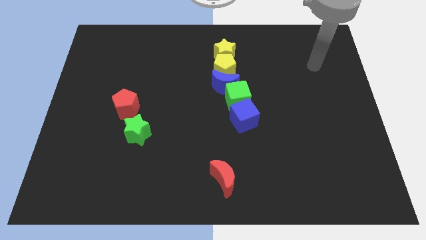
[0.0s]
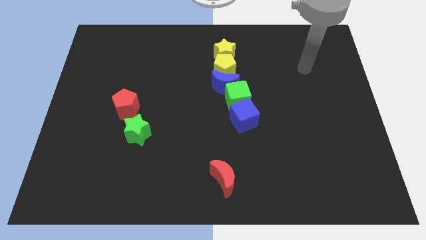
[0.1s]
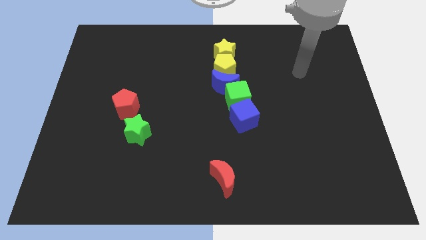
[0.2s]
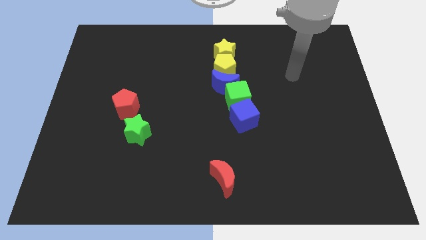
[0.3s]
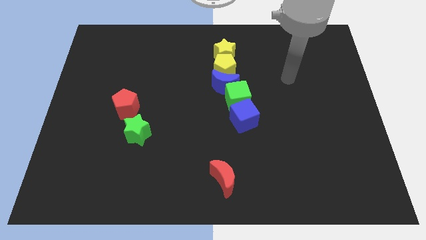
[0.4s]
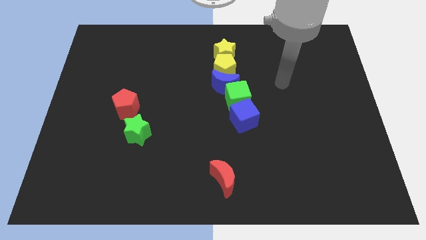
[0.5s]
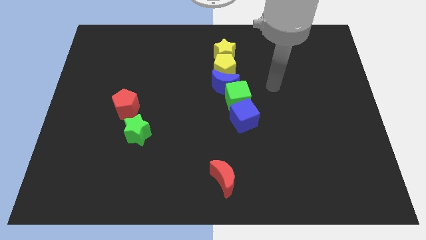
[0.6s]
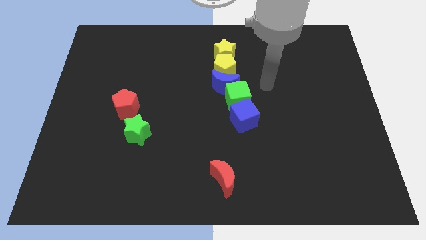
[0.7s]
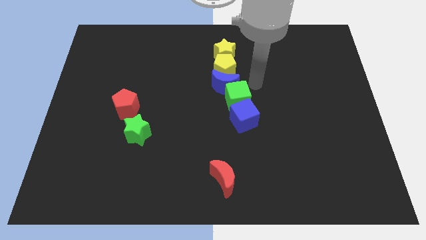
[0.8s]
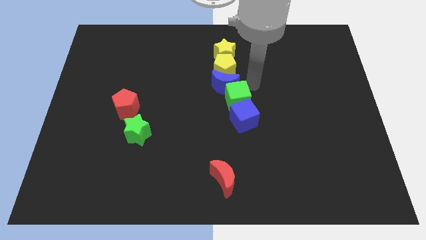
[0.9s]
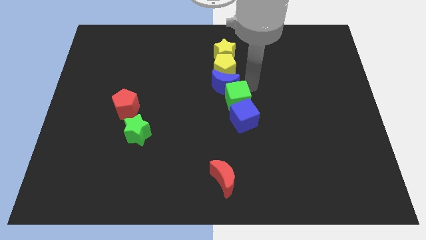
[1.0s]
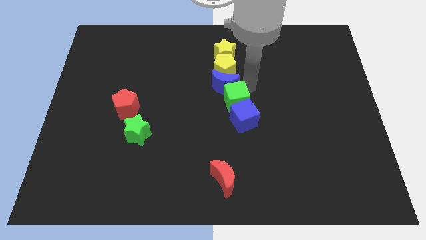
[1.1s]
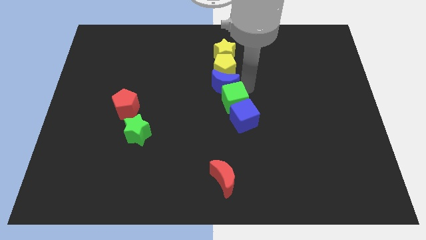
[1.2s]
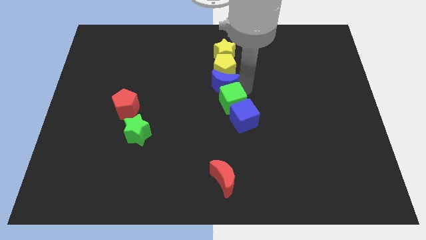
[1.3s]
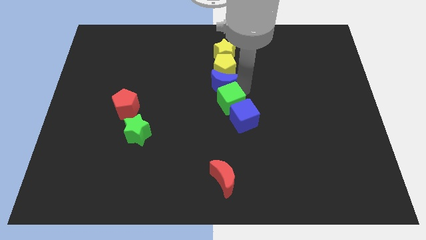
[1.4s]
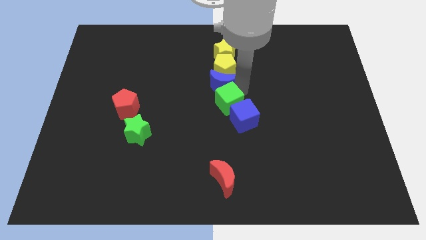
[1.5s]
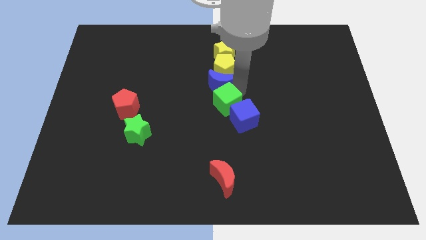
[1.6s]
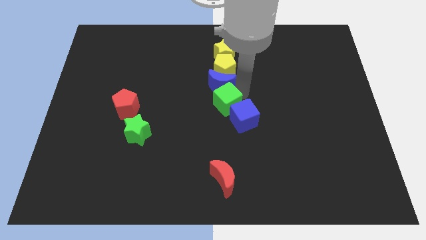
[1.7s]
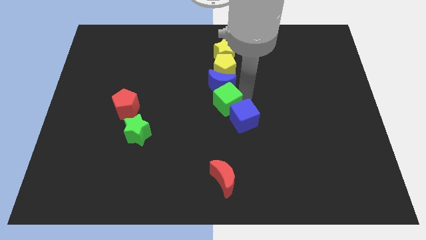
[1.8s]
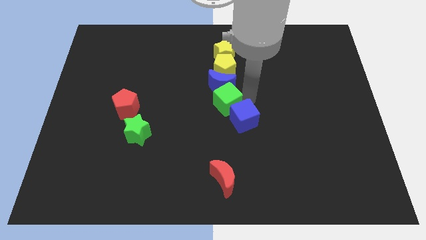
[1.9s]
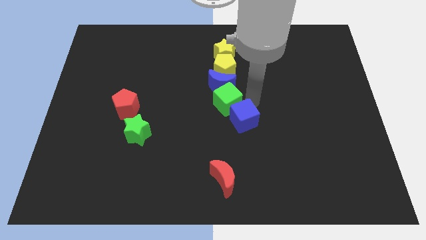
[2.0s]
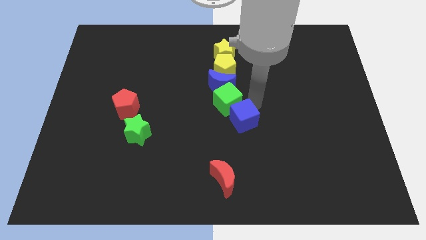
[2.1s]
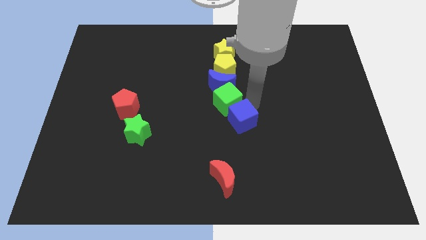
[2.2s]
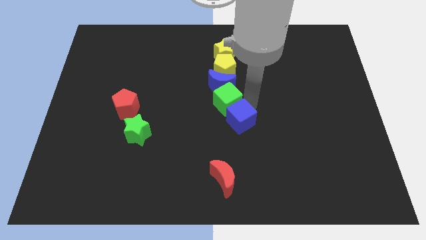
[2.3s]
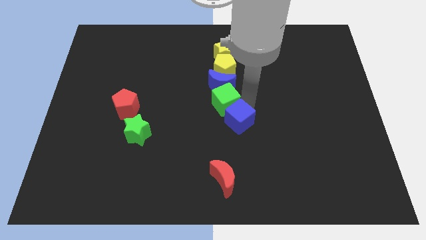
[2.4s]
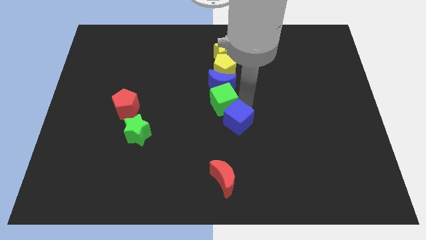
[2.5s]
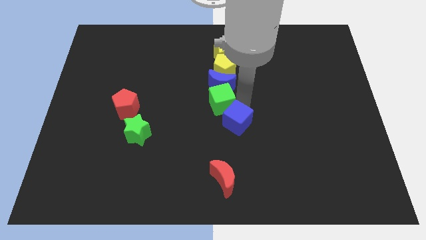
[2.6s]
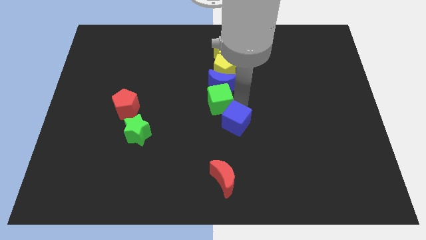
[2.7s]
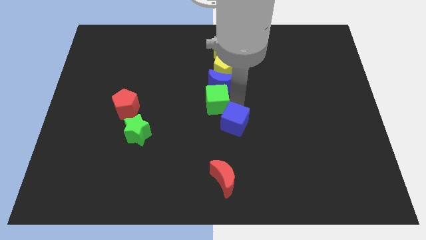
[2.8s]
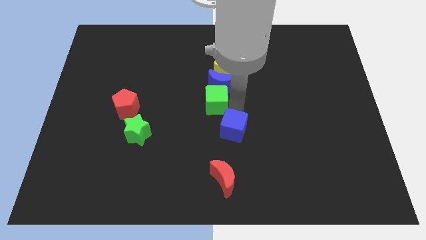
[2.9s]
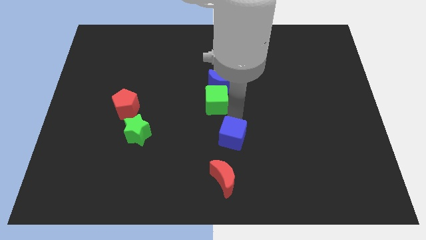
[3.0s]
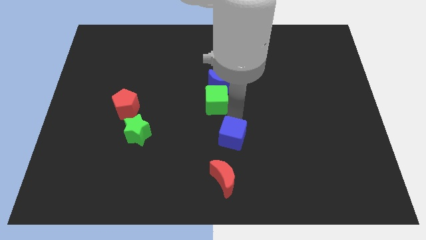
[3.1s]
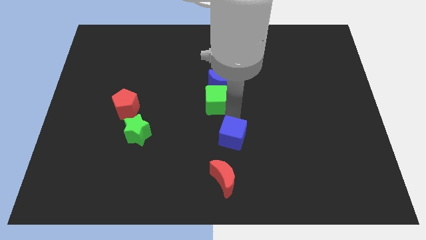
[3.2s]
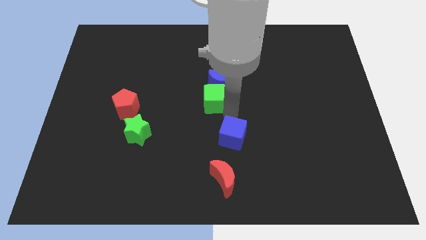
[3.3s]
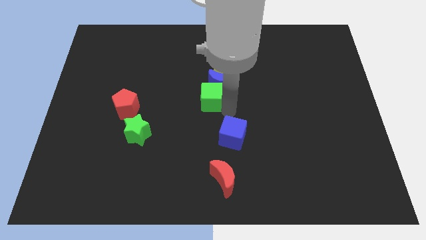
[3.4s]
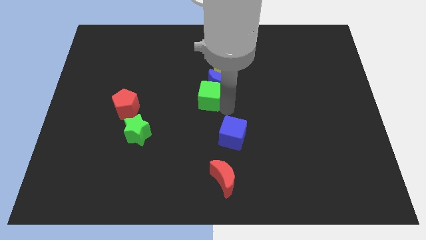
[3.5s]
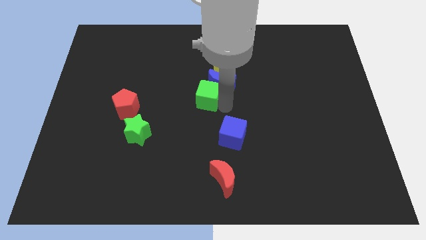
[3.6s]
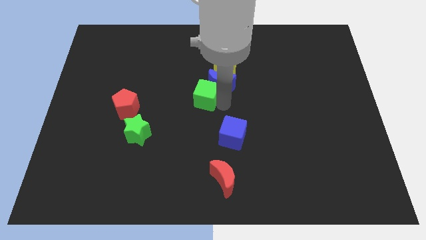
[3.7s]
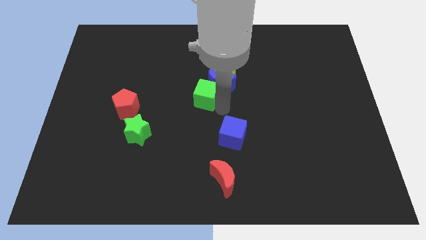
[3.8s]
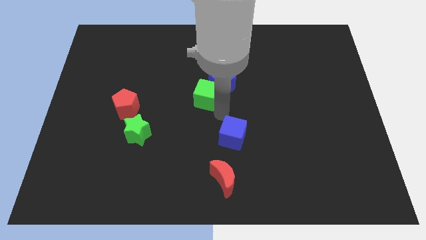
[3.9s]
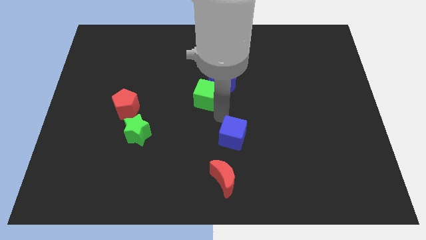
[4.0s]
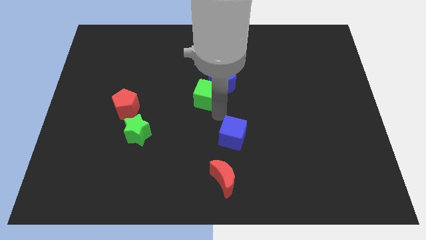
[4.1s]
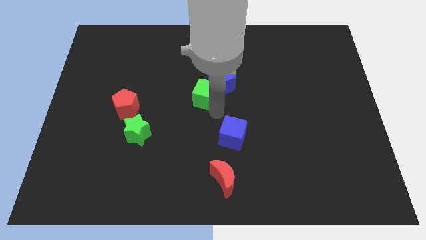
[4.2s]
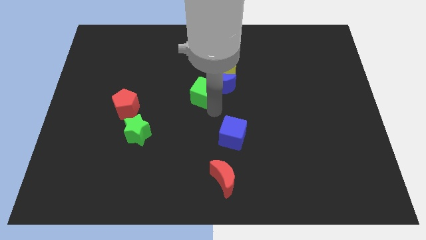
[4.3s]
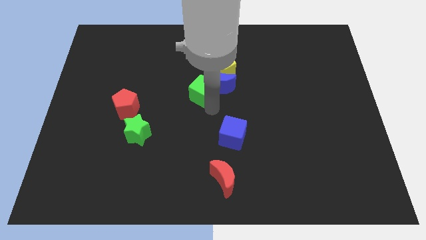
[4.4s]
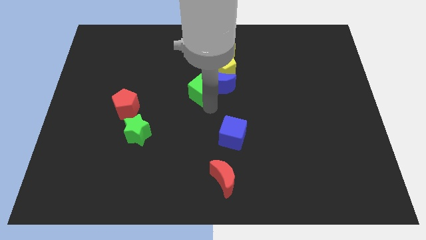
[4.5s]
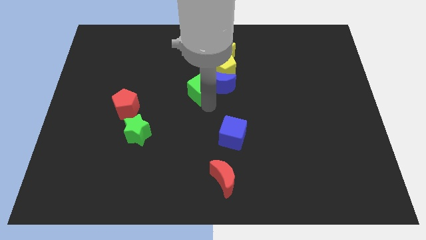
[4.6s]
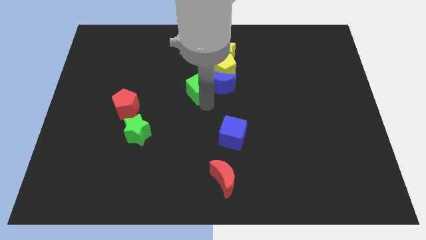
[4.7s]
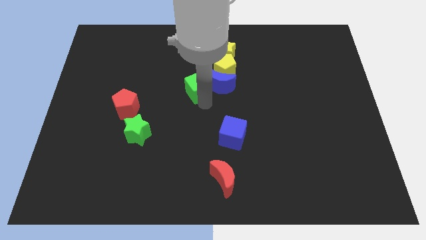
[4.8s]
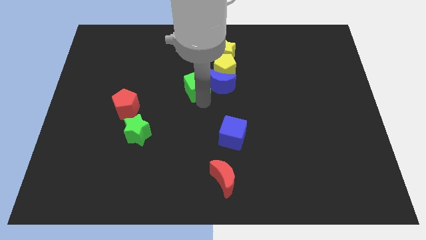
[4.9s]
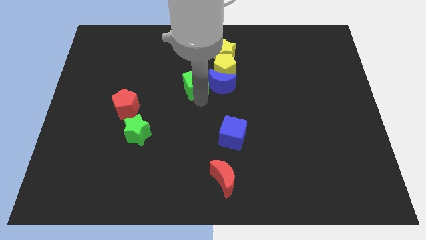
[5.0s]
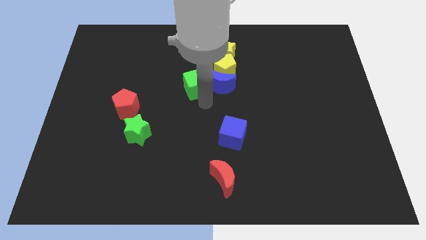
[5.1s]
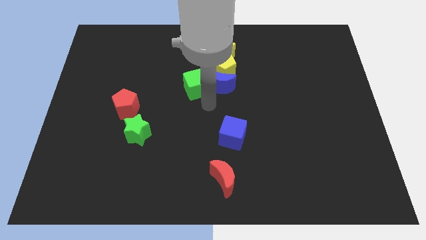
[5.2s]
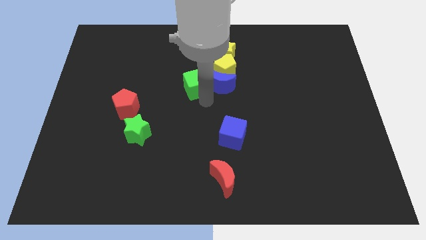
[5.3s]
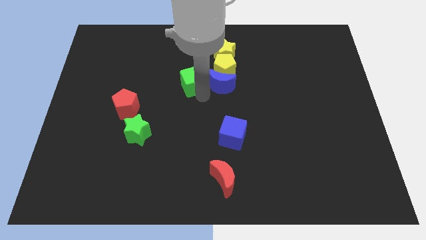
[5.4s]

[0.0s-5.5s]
slide the green cube to the left side of the yellow pentagon

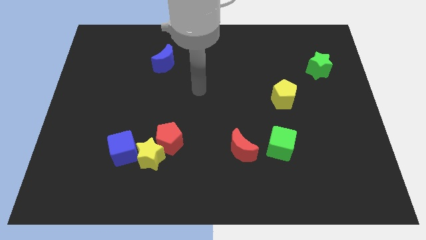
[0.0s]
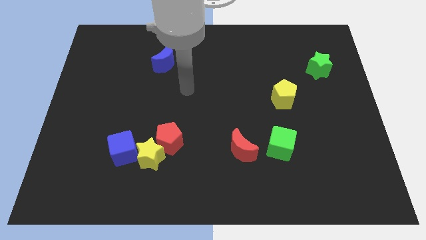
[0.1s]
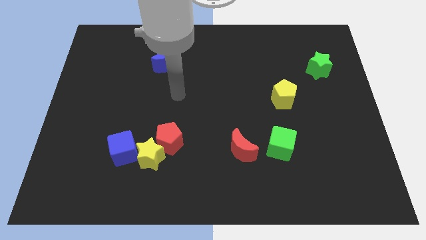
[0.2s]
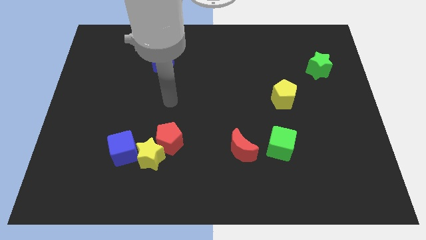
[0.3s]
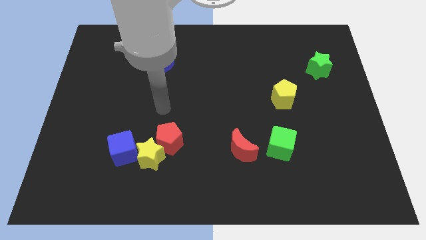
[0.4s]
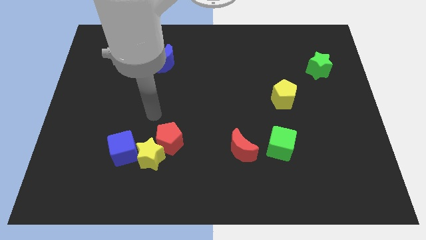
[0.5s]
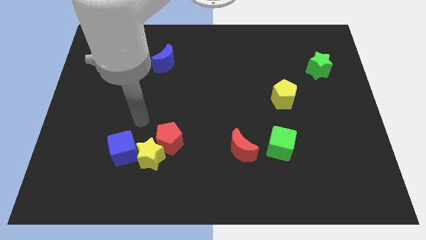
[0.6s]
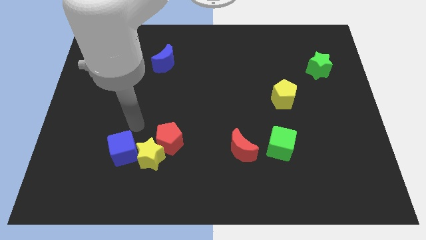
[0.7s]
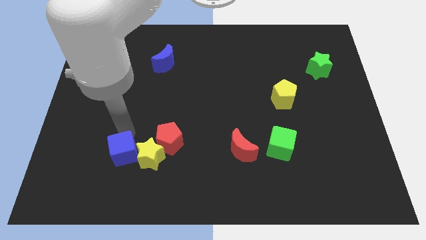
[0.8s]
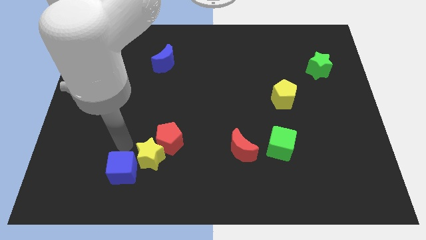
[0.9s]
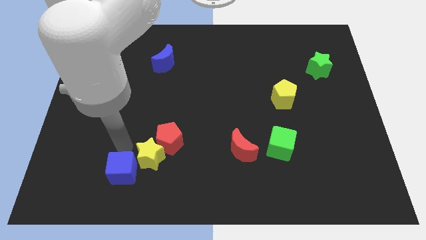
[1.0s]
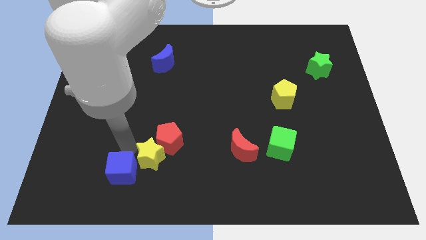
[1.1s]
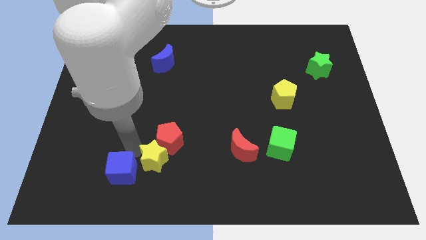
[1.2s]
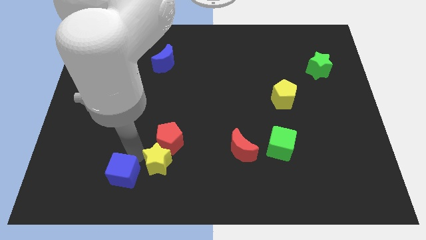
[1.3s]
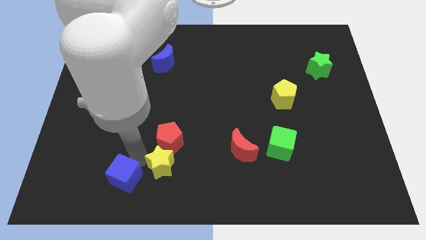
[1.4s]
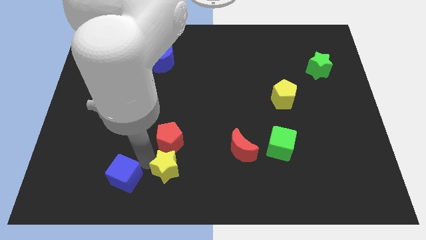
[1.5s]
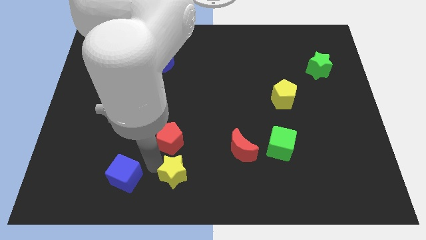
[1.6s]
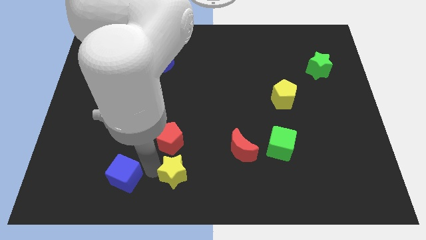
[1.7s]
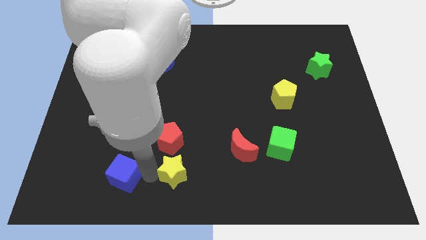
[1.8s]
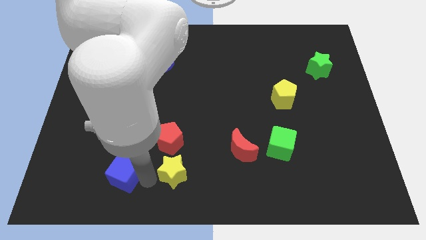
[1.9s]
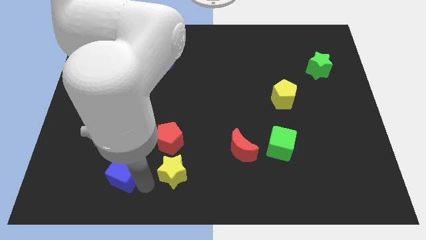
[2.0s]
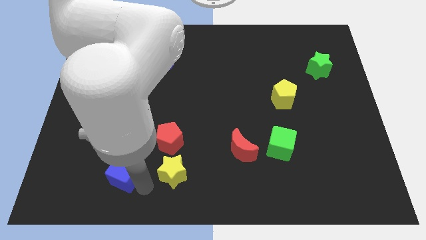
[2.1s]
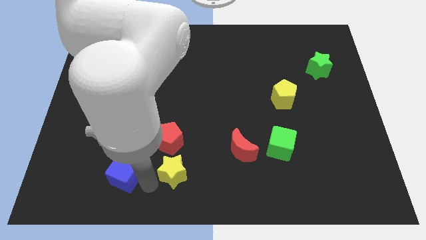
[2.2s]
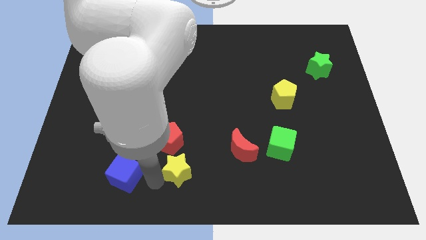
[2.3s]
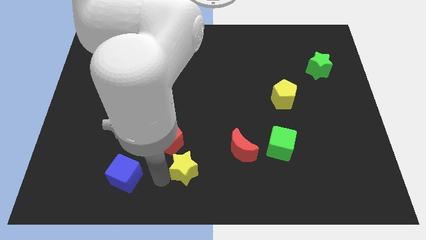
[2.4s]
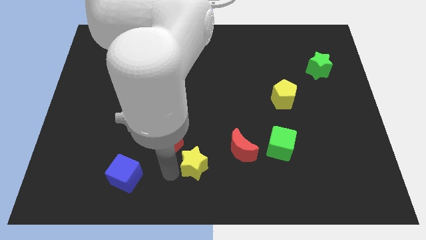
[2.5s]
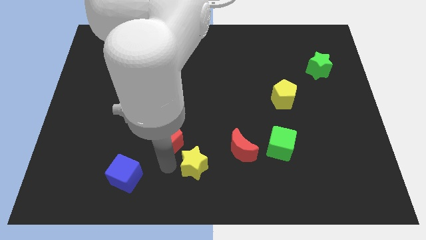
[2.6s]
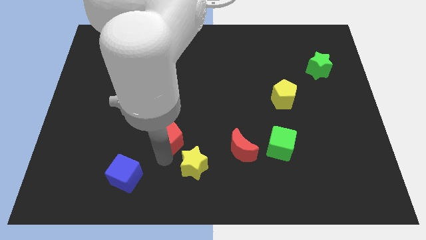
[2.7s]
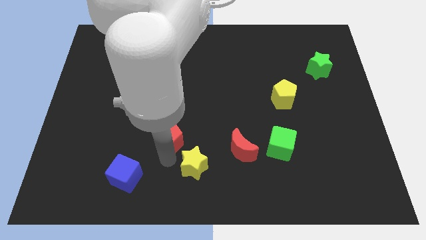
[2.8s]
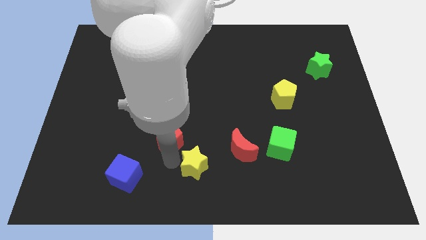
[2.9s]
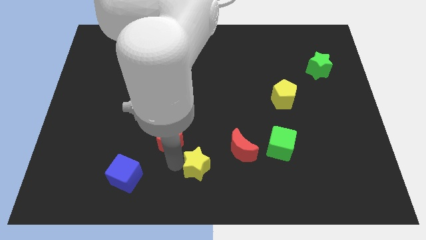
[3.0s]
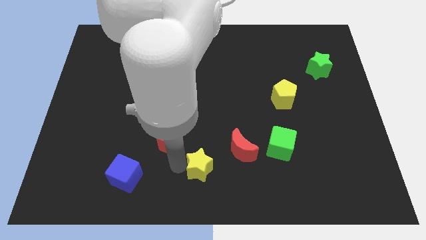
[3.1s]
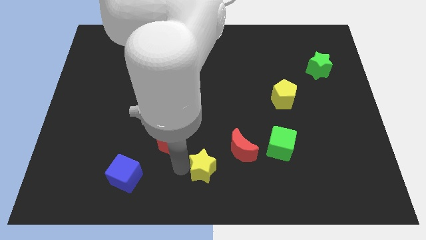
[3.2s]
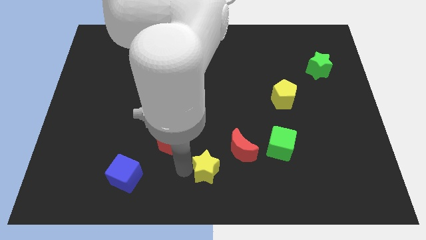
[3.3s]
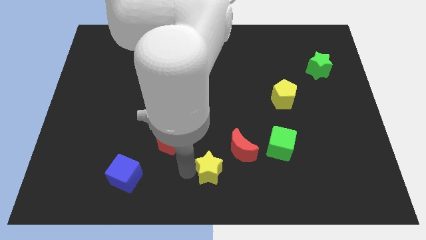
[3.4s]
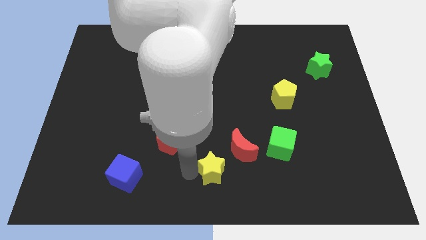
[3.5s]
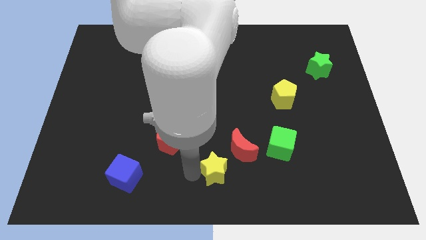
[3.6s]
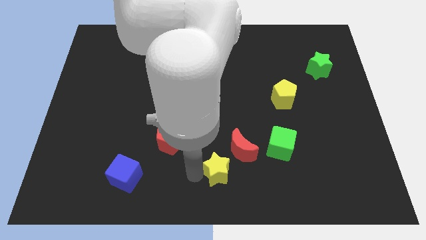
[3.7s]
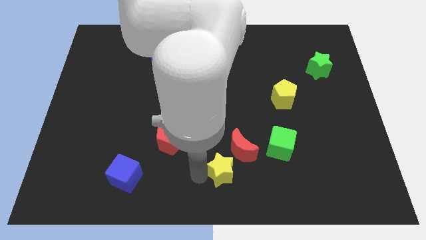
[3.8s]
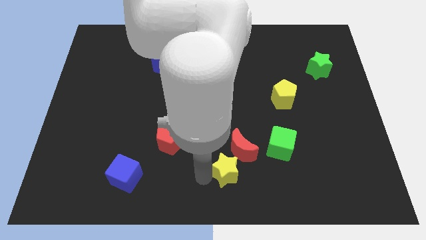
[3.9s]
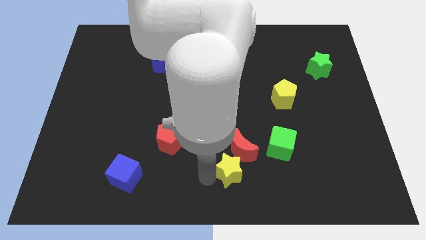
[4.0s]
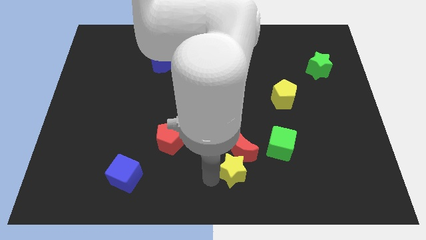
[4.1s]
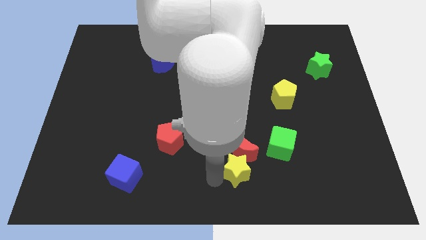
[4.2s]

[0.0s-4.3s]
push the yellow star diagonally down and to the left of the green cube
